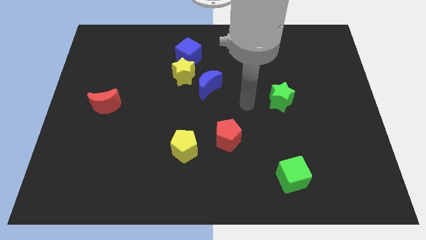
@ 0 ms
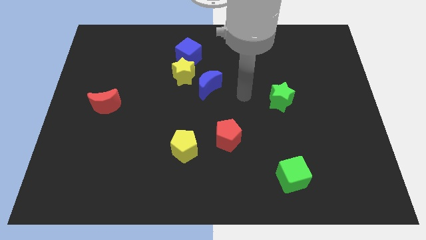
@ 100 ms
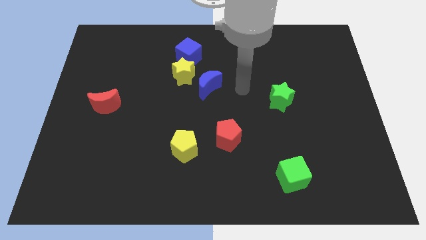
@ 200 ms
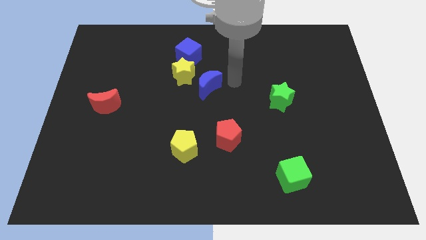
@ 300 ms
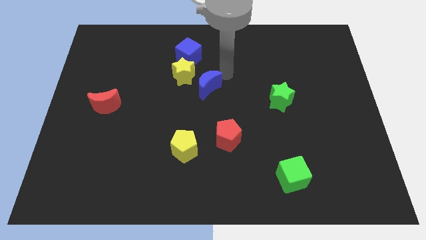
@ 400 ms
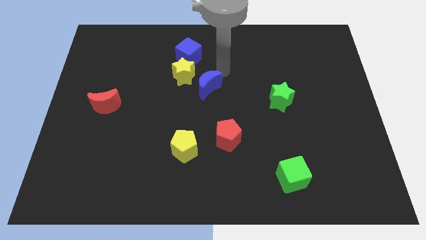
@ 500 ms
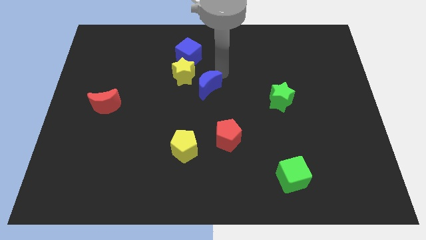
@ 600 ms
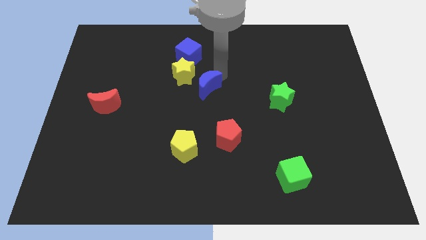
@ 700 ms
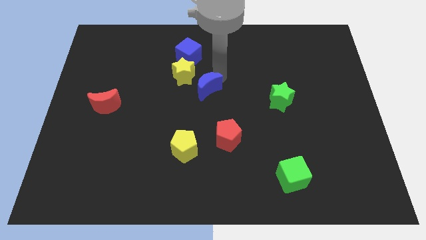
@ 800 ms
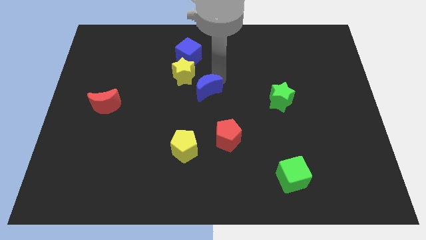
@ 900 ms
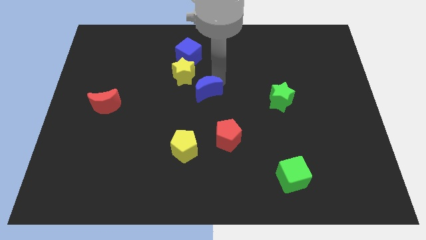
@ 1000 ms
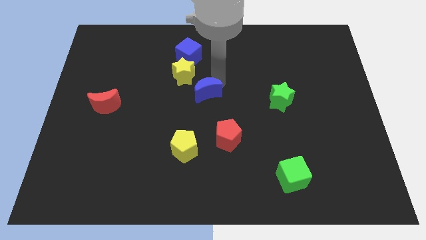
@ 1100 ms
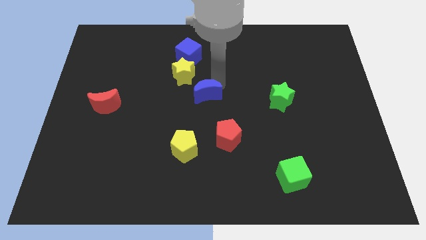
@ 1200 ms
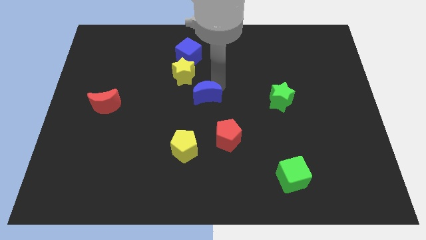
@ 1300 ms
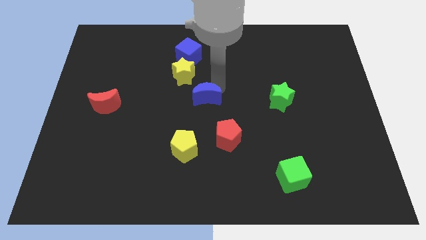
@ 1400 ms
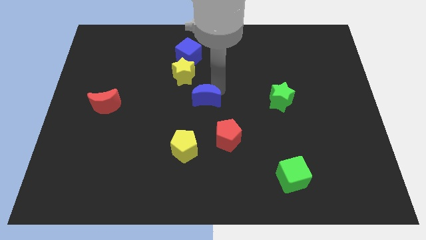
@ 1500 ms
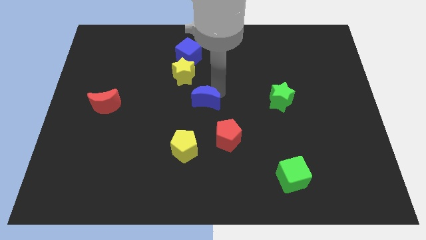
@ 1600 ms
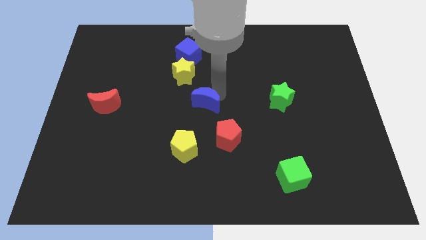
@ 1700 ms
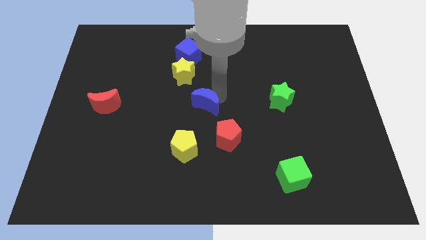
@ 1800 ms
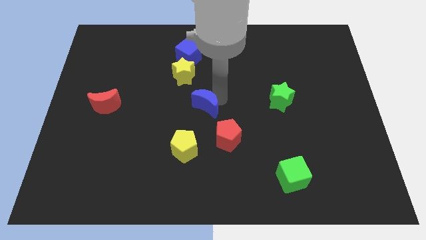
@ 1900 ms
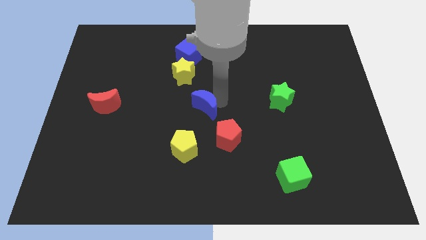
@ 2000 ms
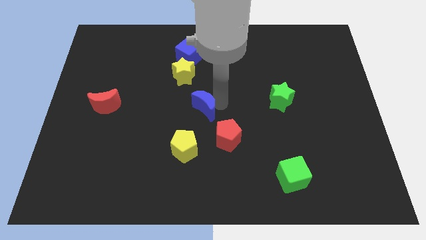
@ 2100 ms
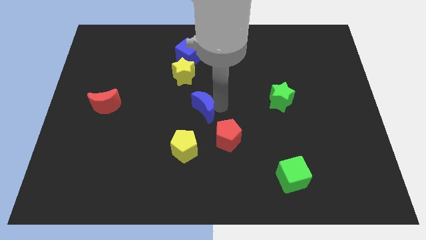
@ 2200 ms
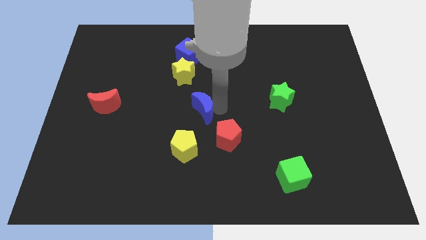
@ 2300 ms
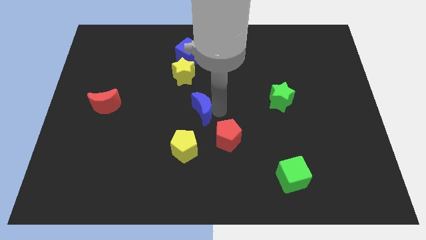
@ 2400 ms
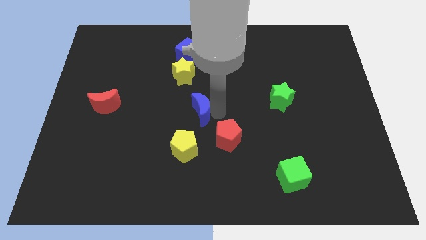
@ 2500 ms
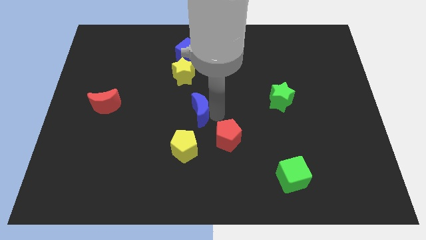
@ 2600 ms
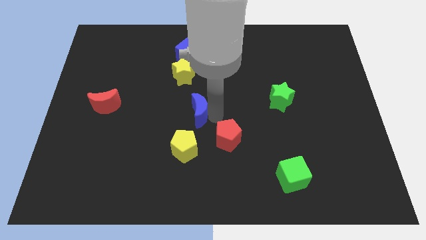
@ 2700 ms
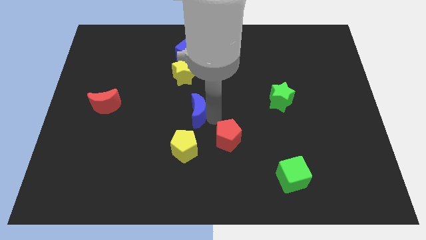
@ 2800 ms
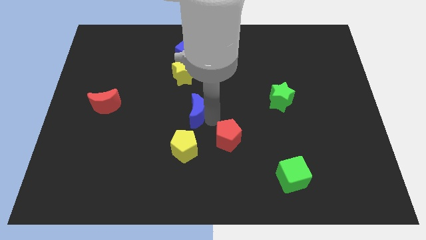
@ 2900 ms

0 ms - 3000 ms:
slightly move the blue moon downwards and then to the left

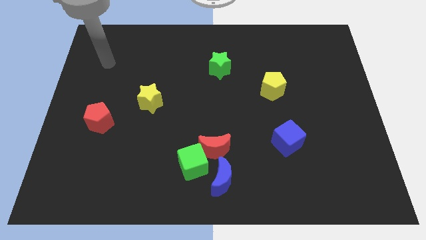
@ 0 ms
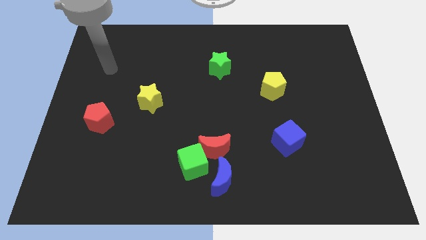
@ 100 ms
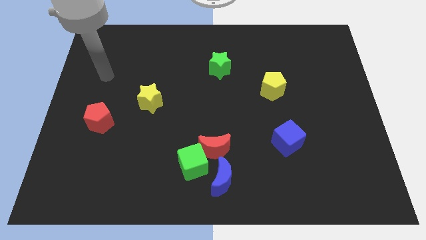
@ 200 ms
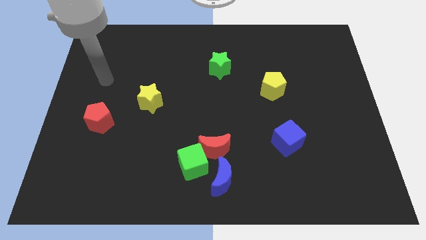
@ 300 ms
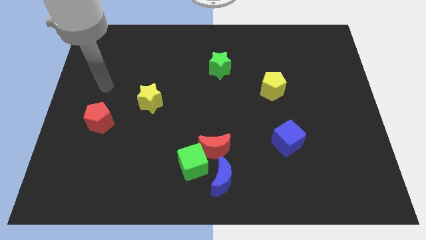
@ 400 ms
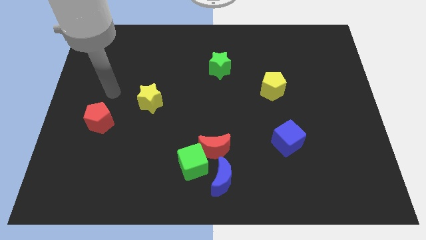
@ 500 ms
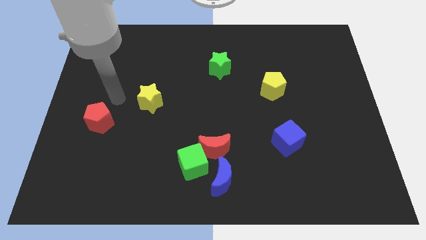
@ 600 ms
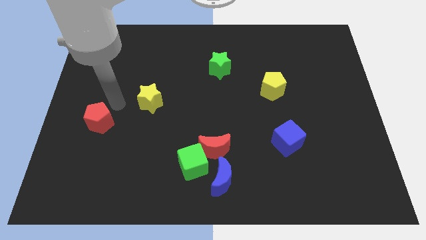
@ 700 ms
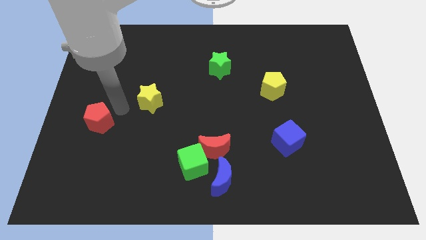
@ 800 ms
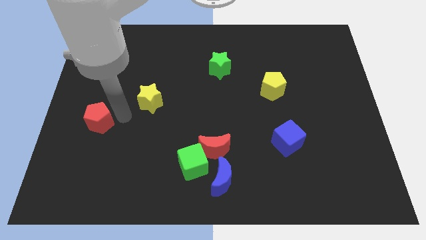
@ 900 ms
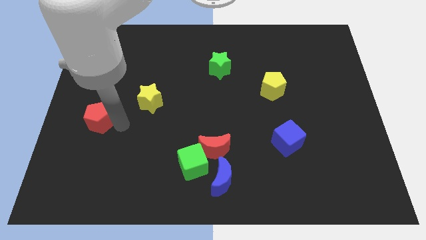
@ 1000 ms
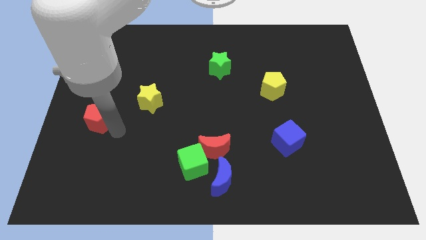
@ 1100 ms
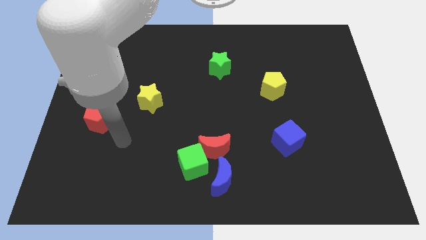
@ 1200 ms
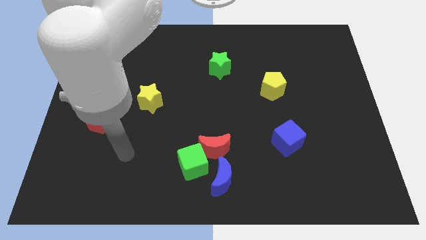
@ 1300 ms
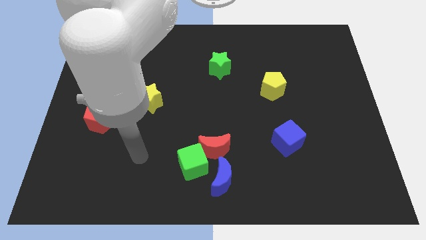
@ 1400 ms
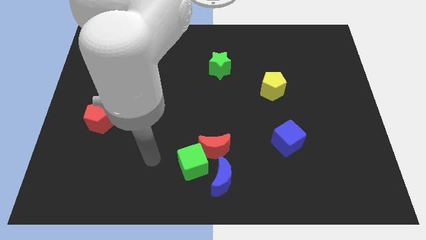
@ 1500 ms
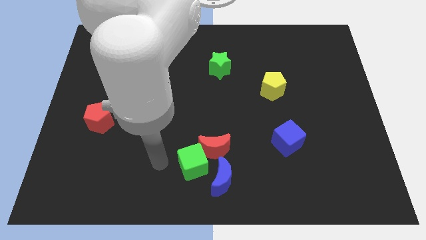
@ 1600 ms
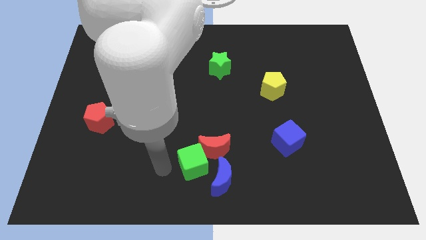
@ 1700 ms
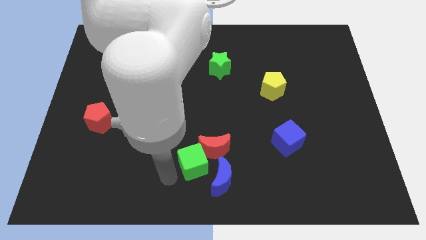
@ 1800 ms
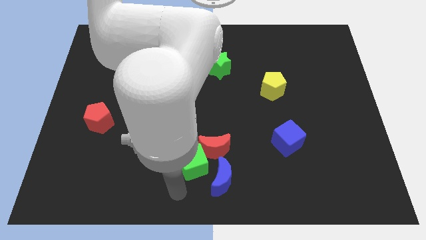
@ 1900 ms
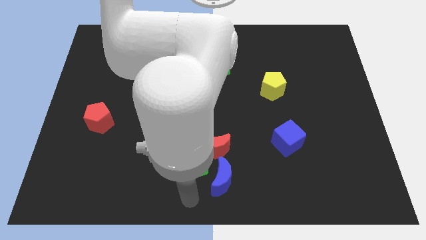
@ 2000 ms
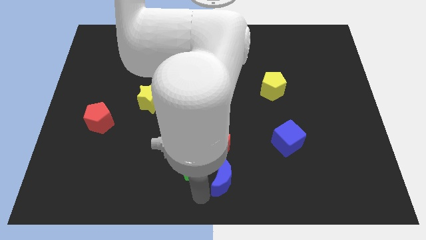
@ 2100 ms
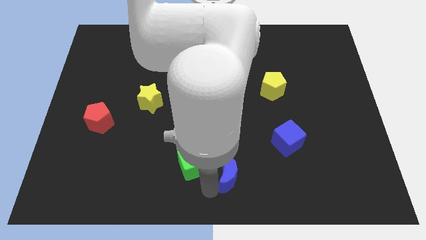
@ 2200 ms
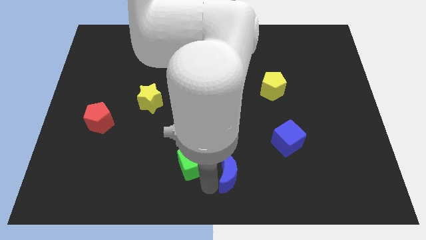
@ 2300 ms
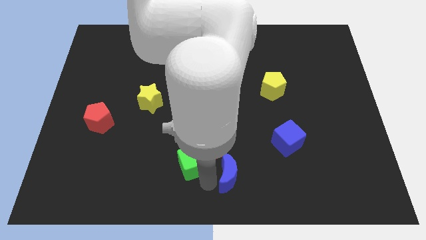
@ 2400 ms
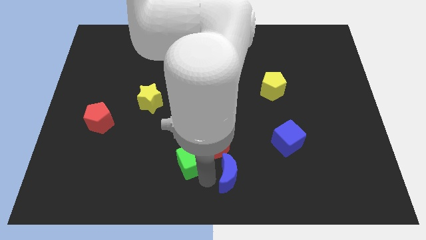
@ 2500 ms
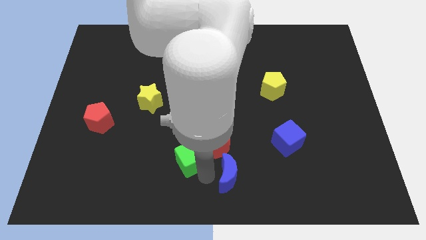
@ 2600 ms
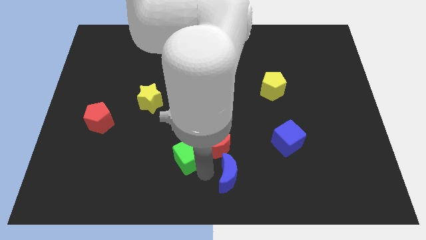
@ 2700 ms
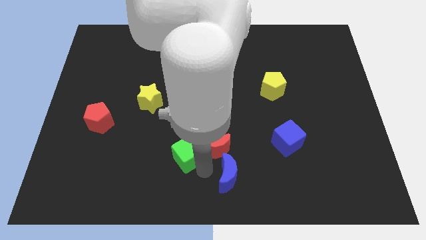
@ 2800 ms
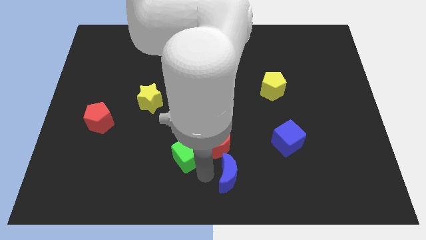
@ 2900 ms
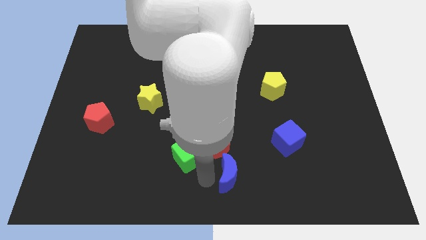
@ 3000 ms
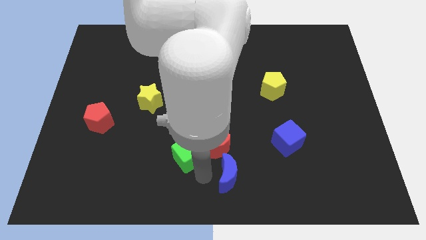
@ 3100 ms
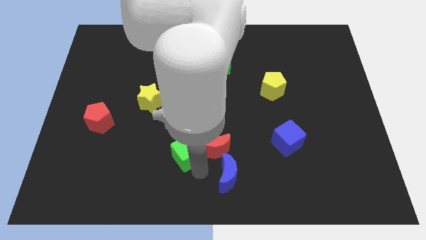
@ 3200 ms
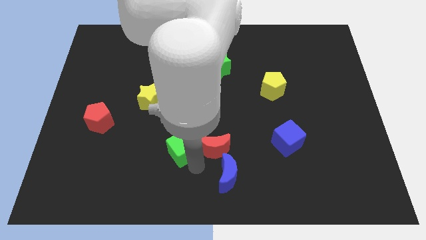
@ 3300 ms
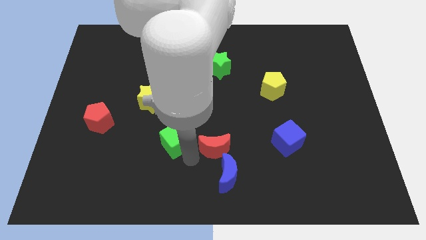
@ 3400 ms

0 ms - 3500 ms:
slide the green cube up and then to the left a little bit

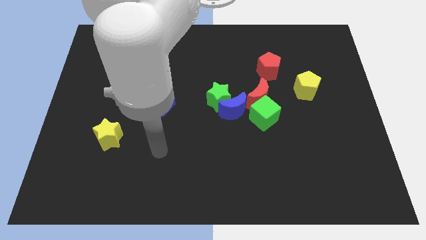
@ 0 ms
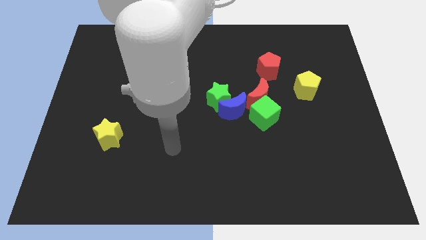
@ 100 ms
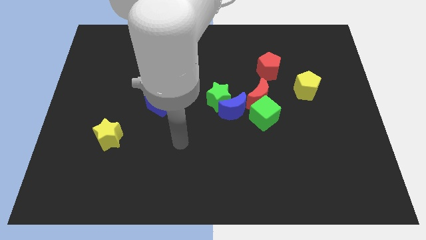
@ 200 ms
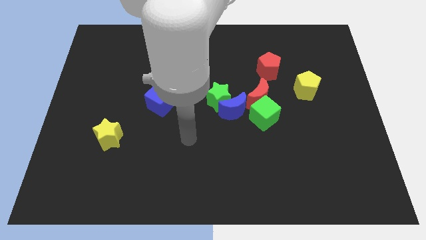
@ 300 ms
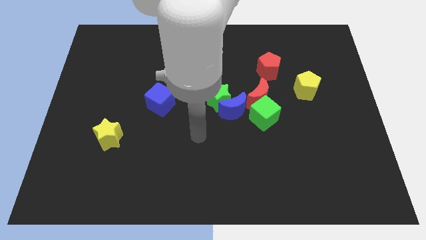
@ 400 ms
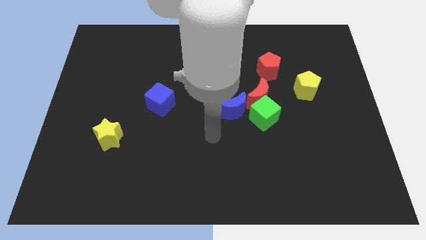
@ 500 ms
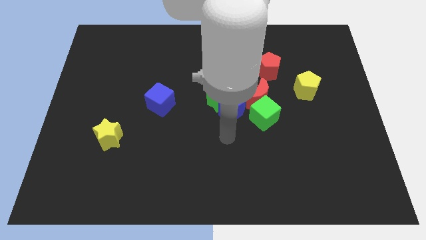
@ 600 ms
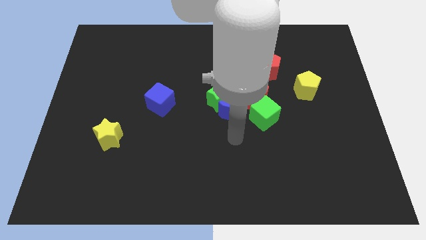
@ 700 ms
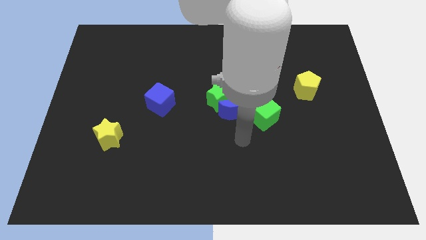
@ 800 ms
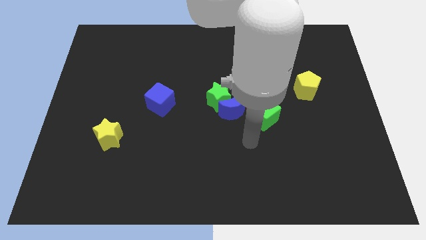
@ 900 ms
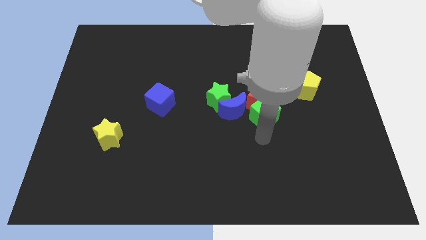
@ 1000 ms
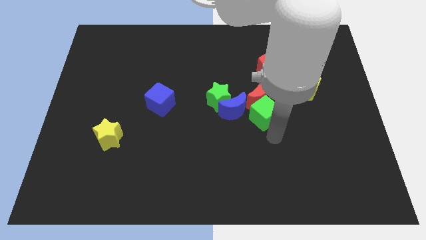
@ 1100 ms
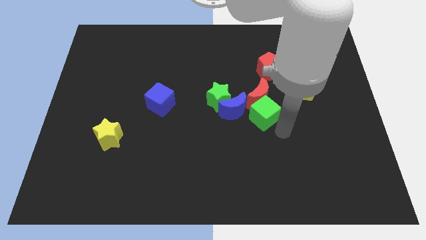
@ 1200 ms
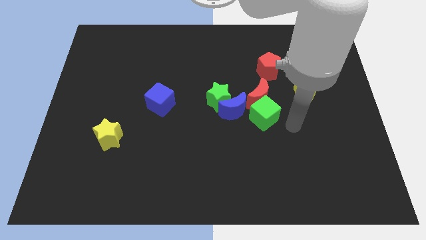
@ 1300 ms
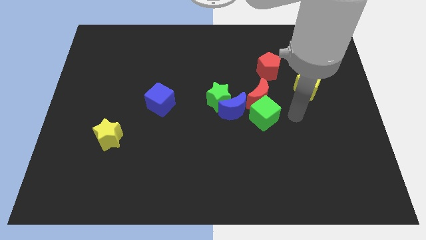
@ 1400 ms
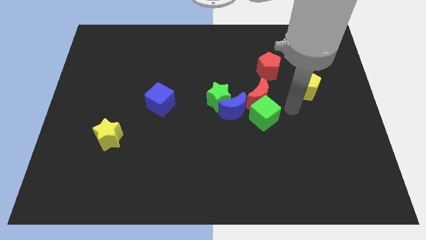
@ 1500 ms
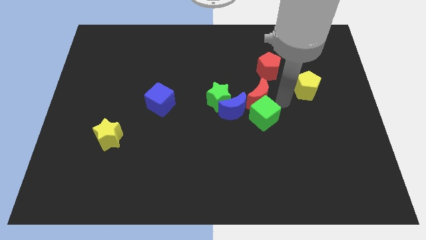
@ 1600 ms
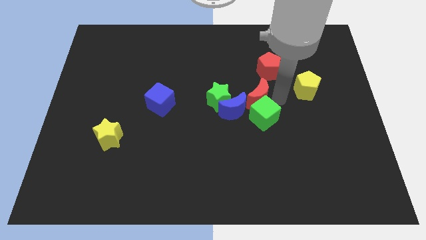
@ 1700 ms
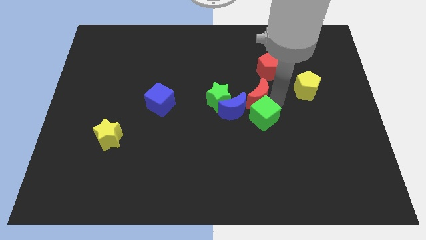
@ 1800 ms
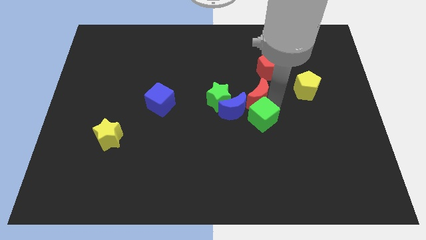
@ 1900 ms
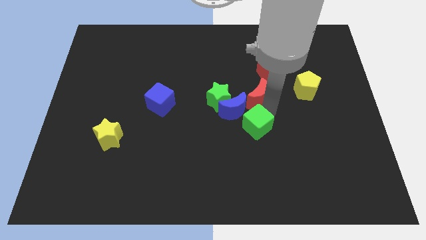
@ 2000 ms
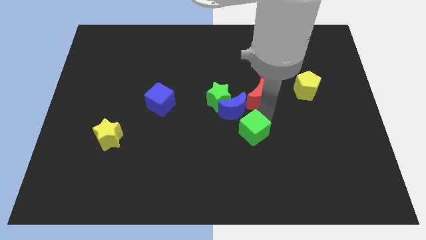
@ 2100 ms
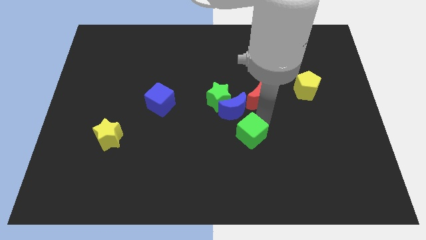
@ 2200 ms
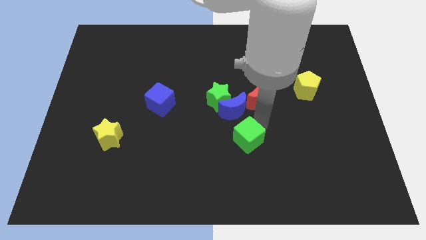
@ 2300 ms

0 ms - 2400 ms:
slightly slide the green cube downwards and to the left
